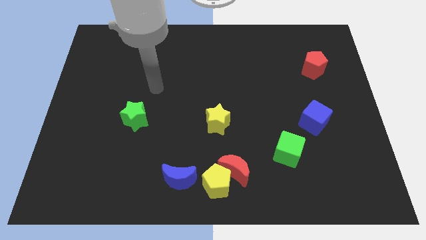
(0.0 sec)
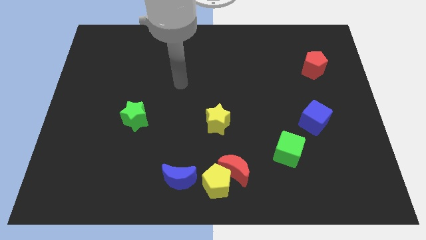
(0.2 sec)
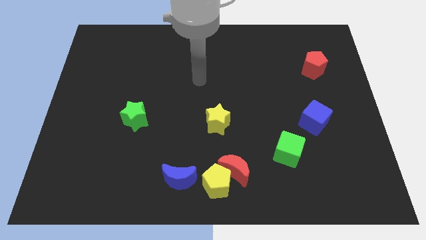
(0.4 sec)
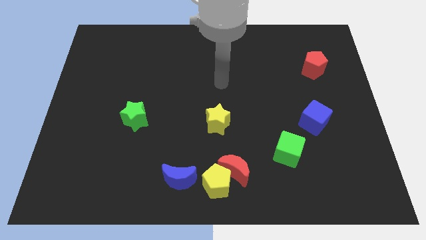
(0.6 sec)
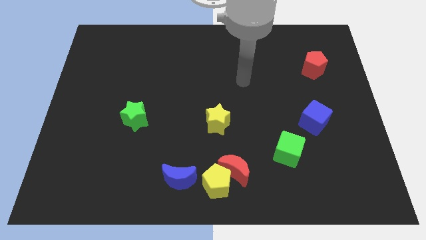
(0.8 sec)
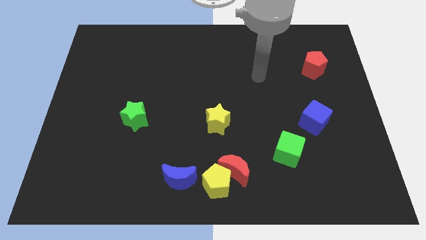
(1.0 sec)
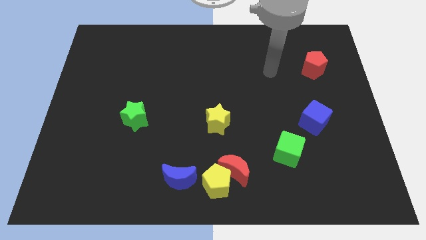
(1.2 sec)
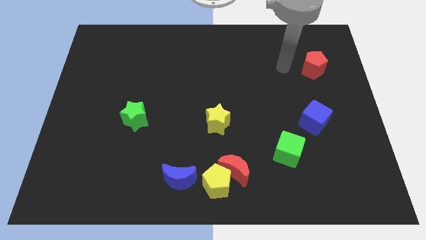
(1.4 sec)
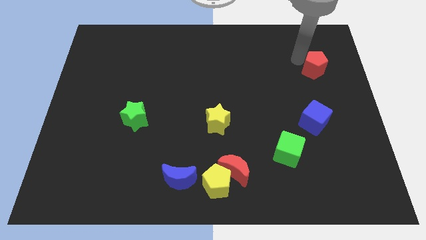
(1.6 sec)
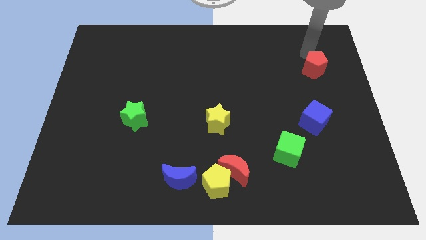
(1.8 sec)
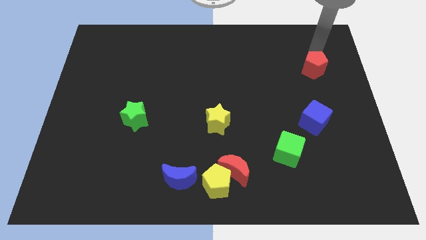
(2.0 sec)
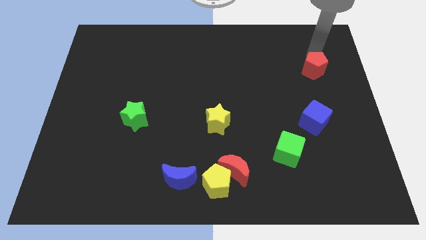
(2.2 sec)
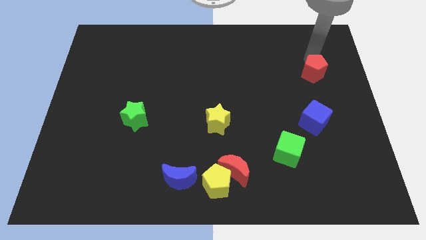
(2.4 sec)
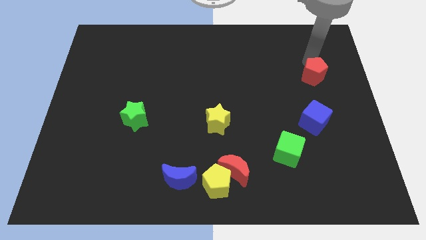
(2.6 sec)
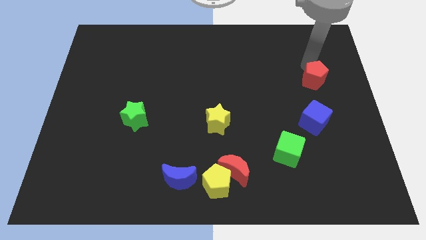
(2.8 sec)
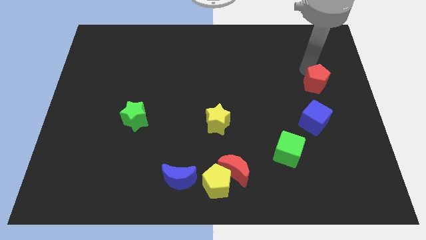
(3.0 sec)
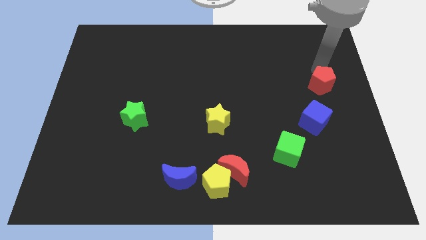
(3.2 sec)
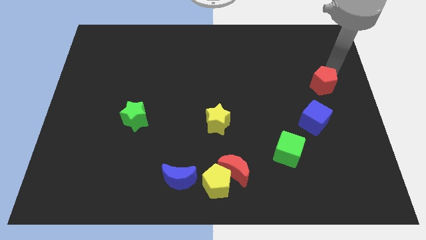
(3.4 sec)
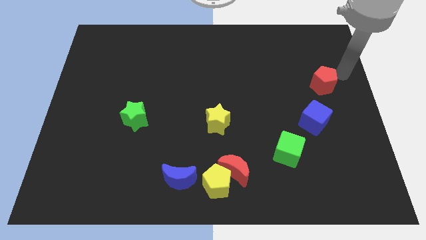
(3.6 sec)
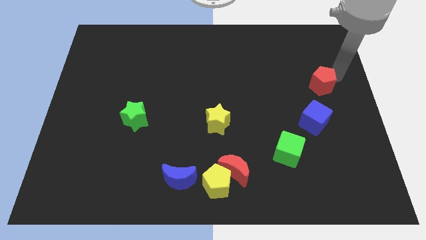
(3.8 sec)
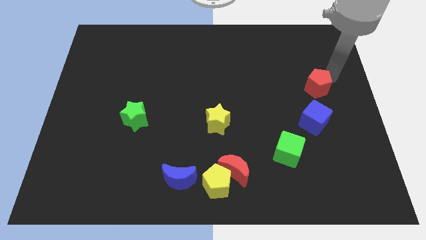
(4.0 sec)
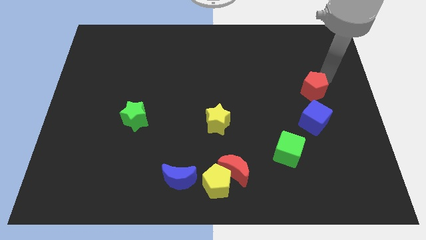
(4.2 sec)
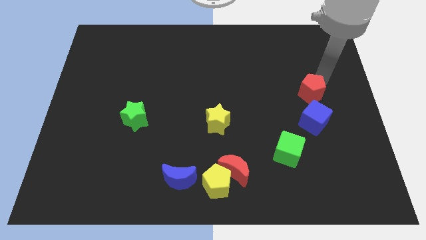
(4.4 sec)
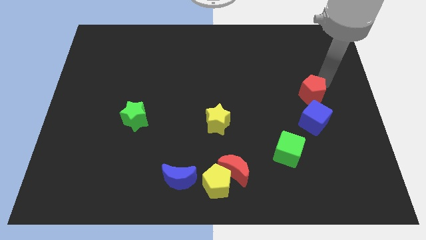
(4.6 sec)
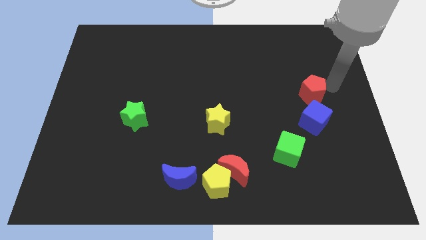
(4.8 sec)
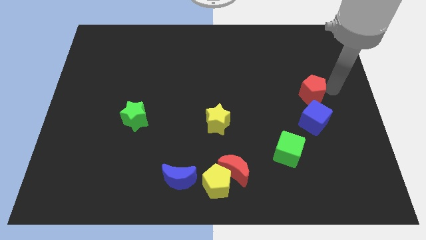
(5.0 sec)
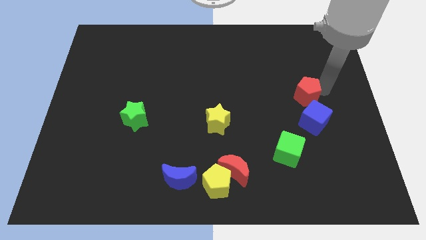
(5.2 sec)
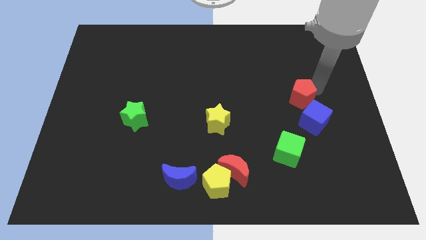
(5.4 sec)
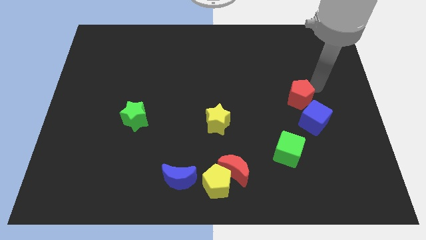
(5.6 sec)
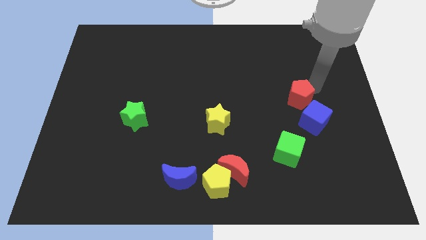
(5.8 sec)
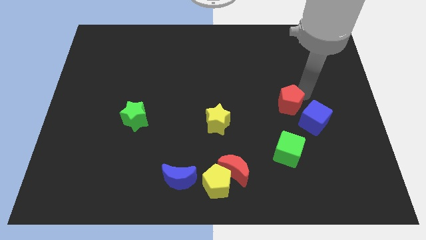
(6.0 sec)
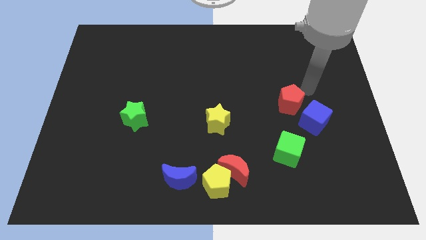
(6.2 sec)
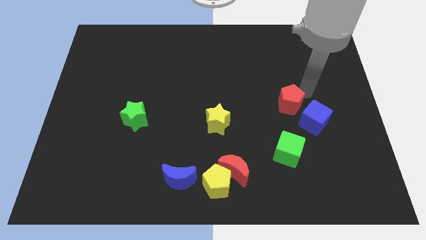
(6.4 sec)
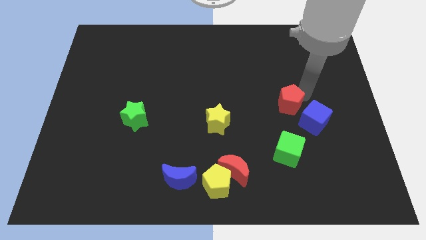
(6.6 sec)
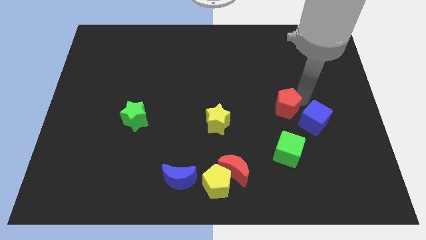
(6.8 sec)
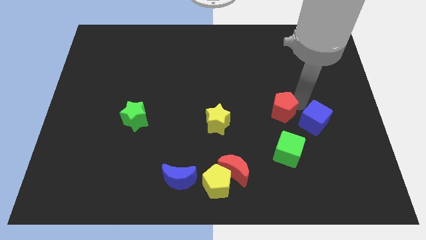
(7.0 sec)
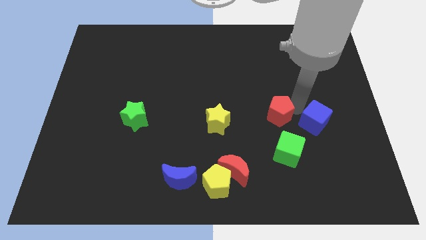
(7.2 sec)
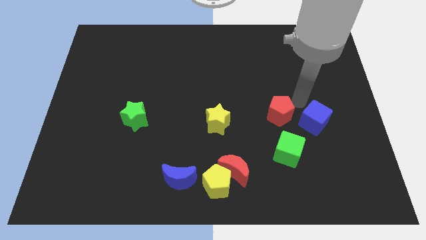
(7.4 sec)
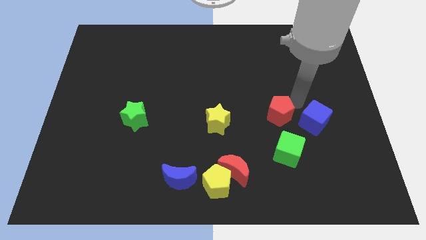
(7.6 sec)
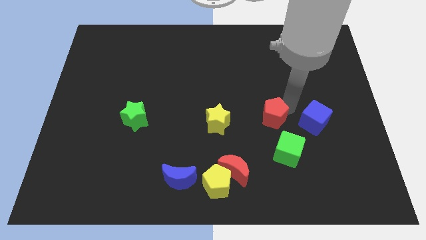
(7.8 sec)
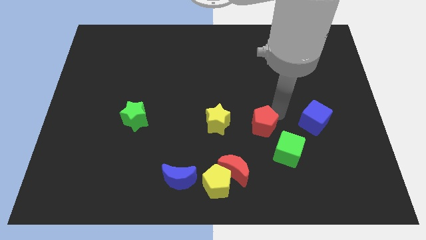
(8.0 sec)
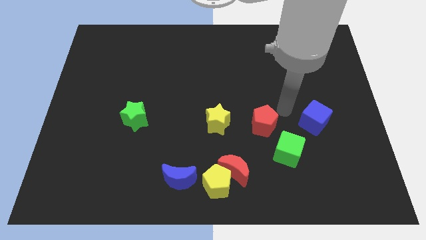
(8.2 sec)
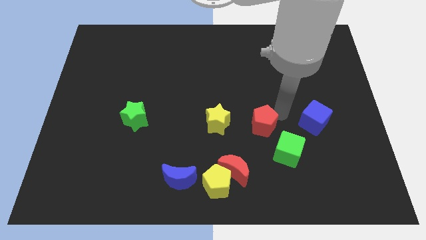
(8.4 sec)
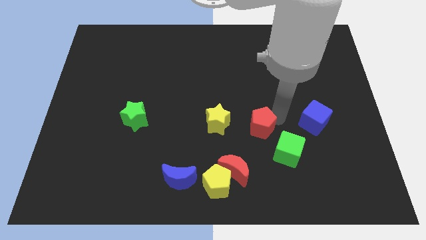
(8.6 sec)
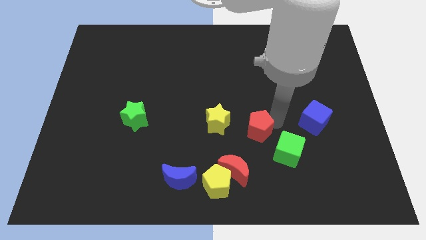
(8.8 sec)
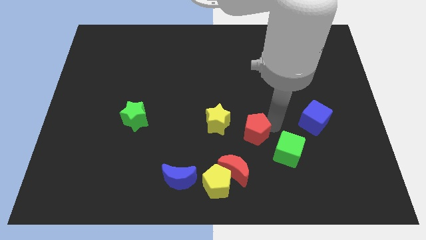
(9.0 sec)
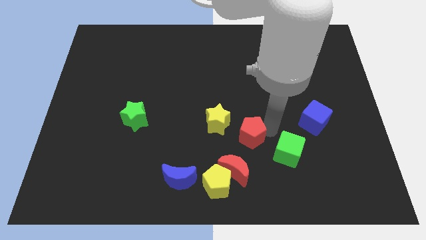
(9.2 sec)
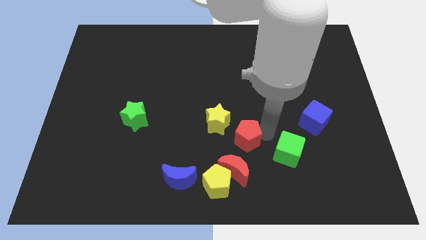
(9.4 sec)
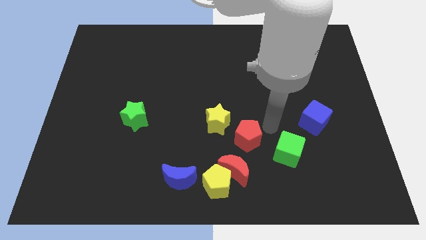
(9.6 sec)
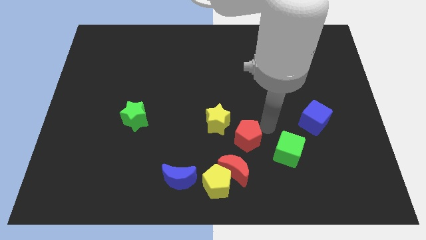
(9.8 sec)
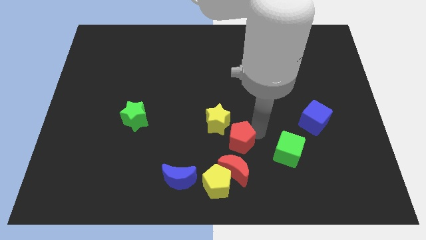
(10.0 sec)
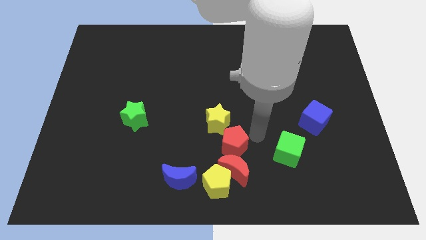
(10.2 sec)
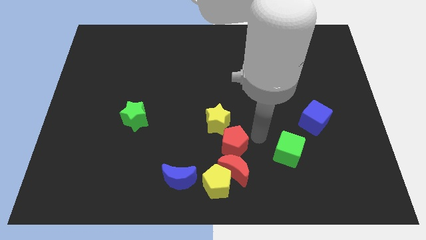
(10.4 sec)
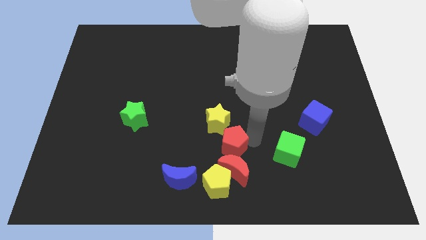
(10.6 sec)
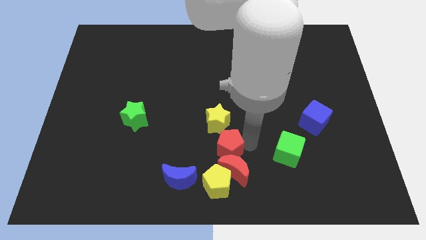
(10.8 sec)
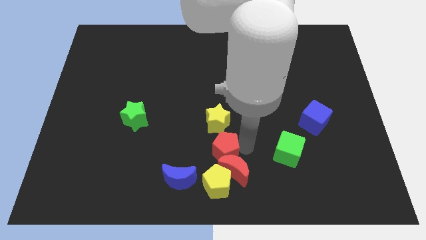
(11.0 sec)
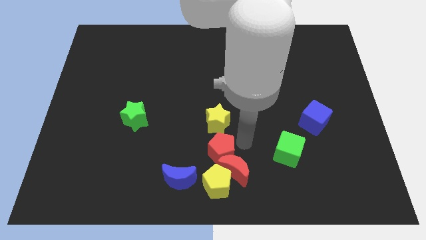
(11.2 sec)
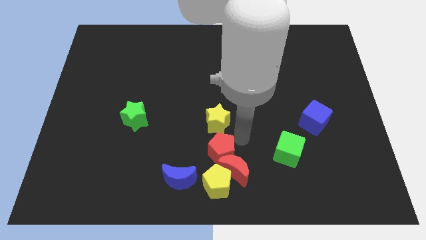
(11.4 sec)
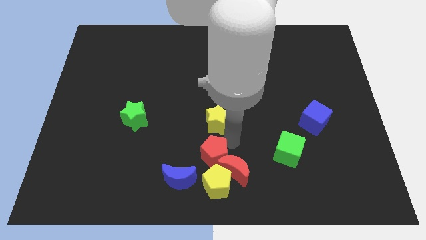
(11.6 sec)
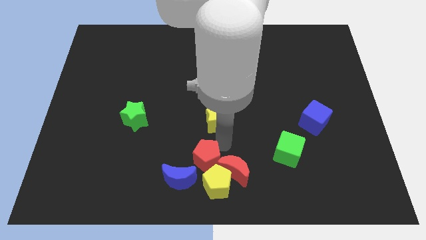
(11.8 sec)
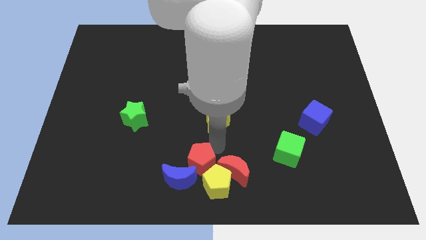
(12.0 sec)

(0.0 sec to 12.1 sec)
slide the red pentagon to the blue moon

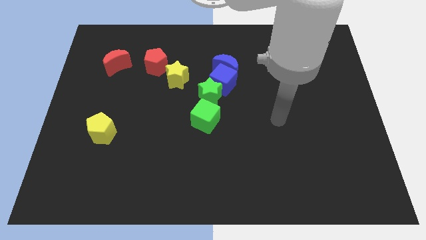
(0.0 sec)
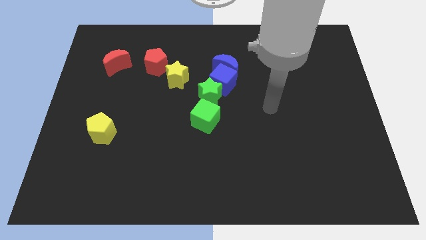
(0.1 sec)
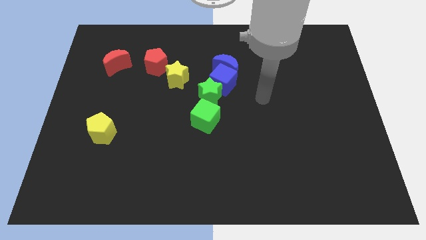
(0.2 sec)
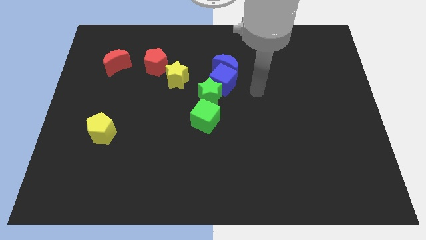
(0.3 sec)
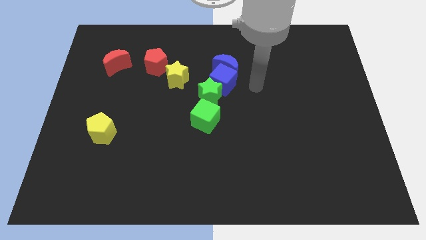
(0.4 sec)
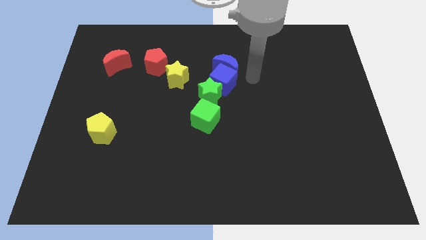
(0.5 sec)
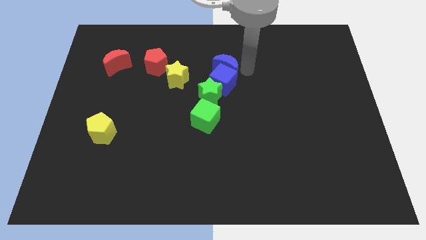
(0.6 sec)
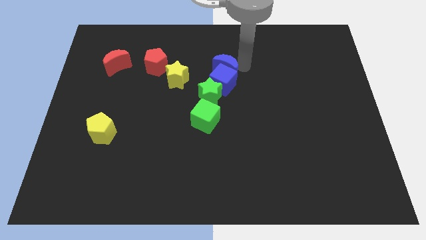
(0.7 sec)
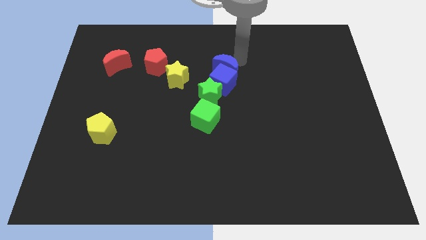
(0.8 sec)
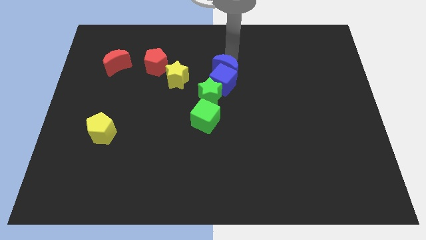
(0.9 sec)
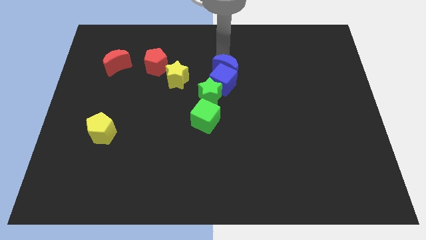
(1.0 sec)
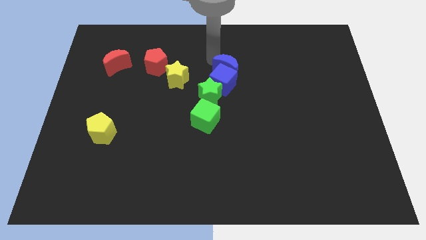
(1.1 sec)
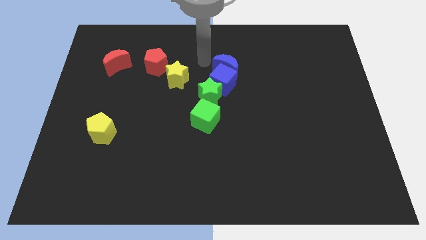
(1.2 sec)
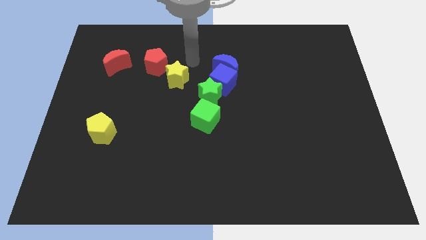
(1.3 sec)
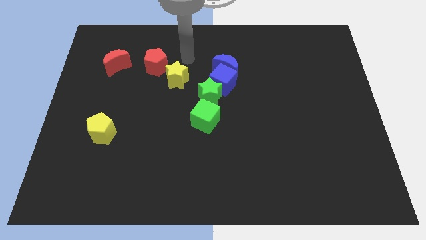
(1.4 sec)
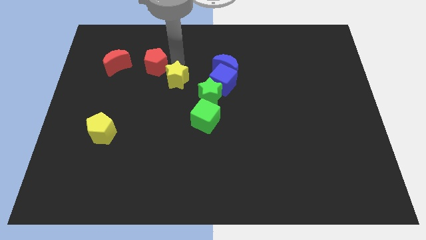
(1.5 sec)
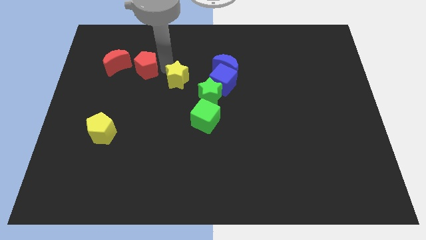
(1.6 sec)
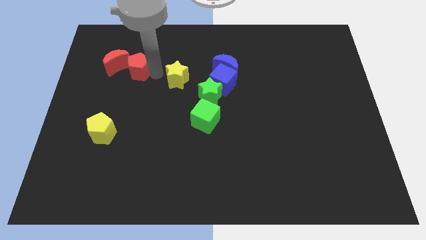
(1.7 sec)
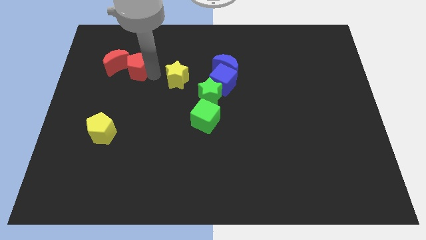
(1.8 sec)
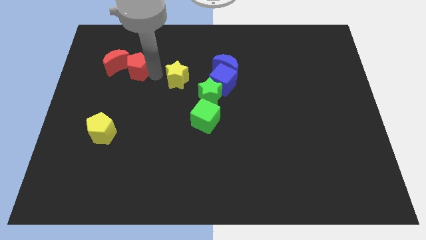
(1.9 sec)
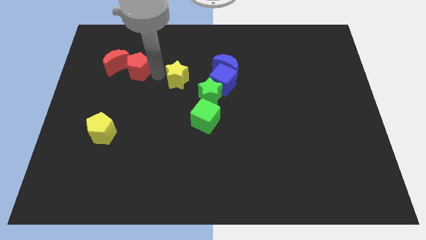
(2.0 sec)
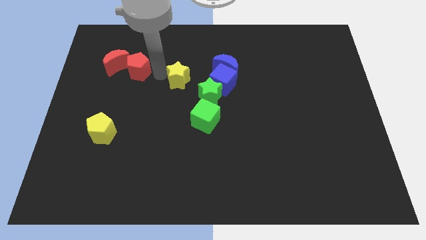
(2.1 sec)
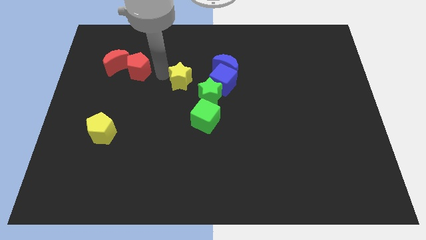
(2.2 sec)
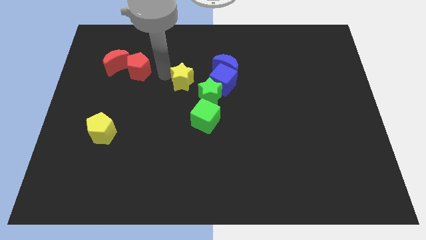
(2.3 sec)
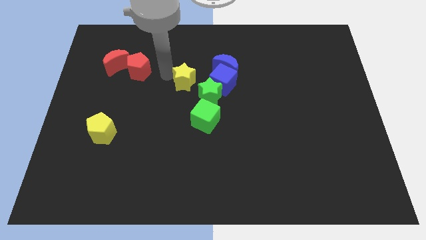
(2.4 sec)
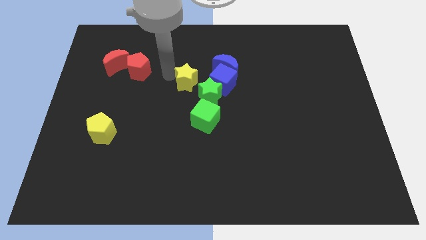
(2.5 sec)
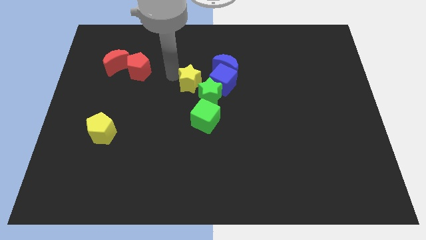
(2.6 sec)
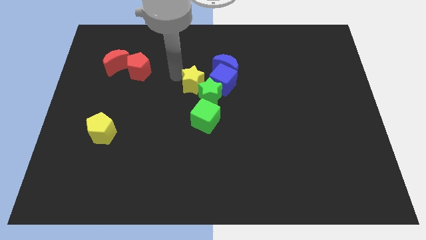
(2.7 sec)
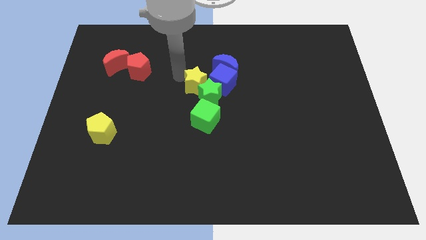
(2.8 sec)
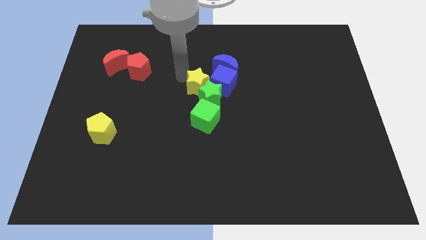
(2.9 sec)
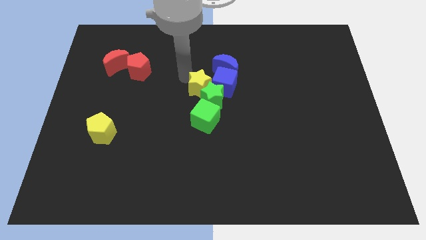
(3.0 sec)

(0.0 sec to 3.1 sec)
slide the yellow star close to the blue cube
